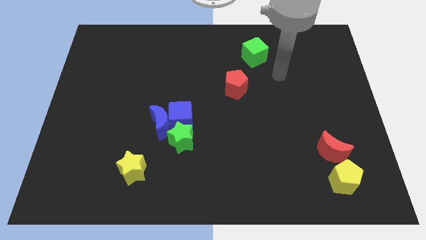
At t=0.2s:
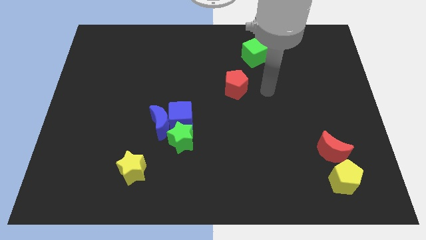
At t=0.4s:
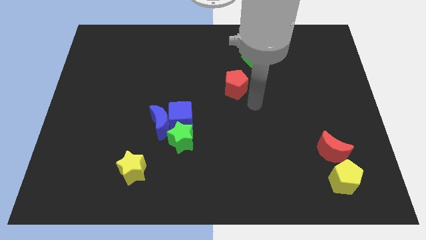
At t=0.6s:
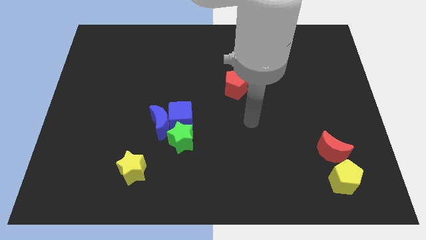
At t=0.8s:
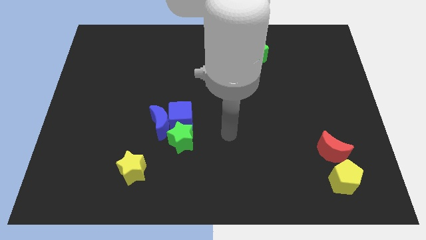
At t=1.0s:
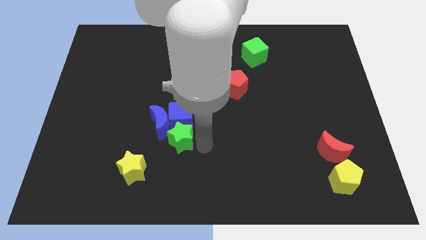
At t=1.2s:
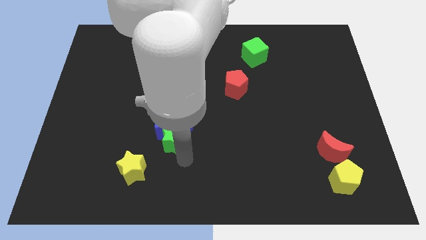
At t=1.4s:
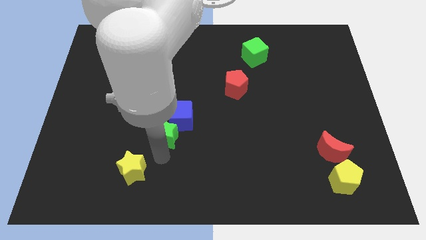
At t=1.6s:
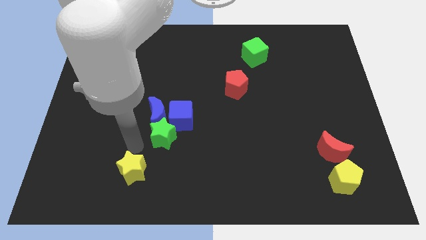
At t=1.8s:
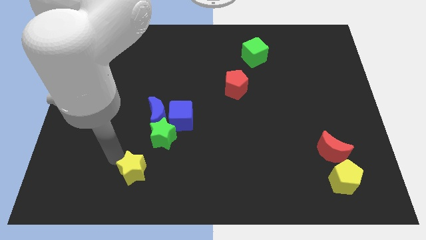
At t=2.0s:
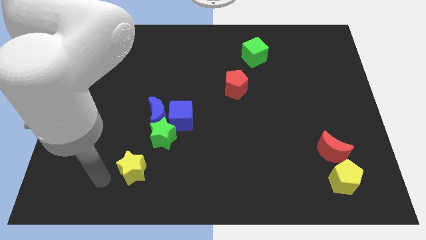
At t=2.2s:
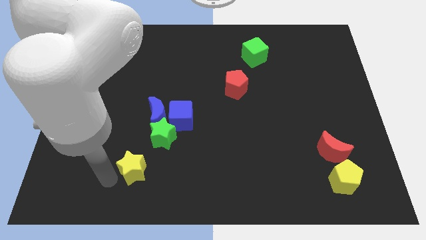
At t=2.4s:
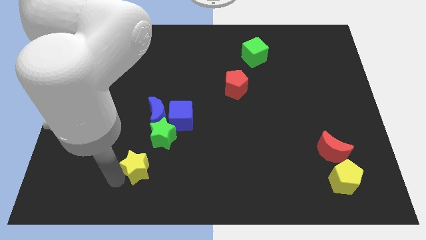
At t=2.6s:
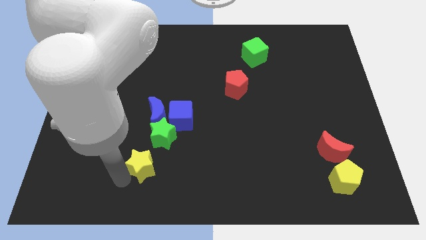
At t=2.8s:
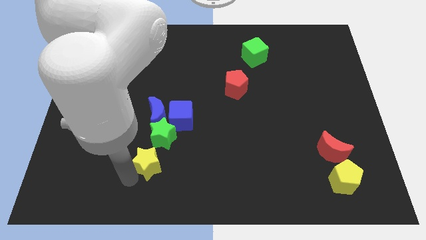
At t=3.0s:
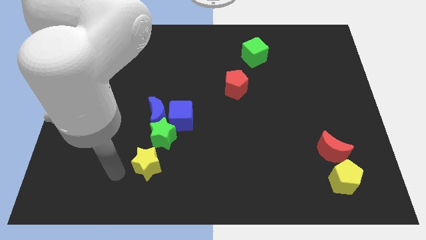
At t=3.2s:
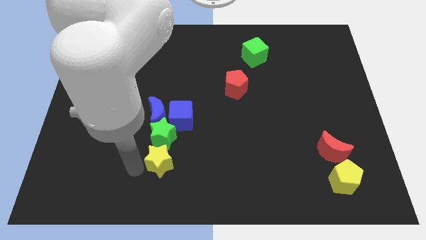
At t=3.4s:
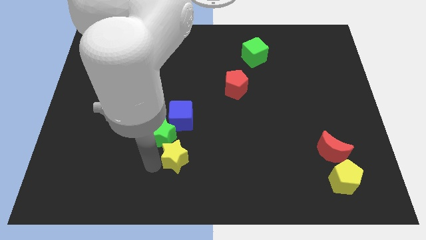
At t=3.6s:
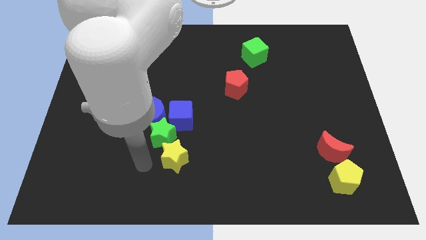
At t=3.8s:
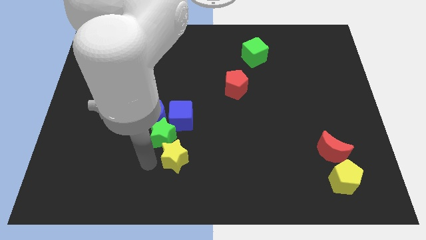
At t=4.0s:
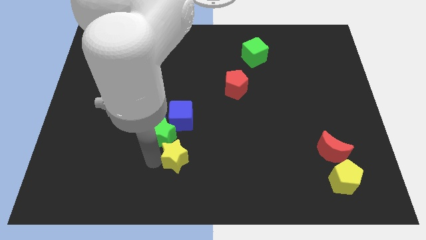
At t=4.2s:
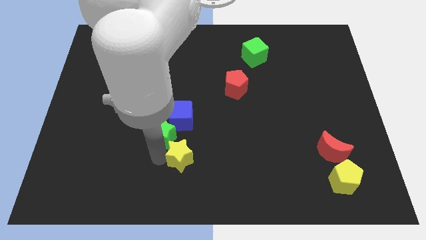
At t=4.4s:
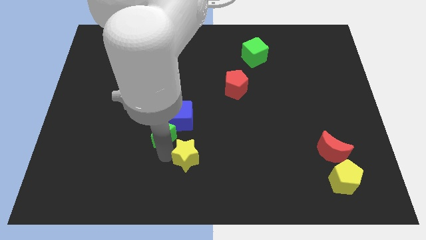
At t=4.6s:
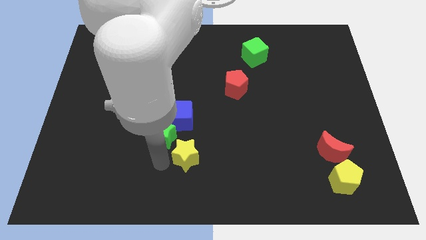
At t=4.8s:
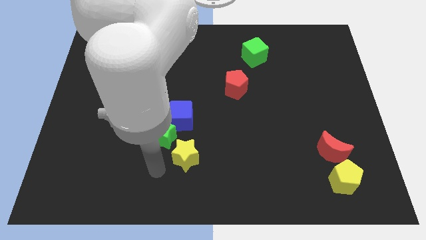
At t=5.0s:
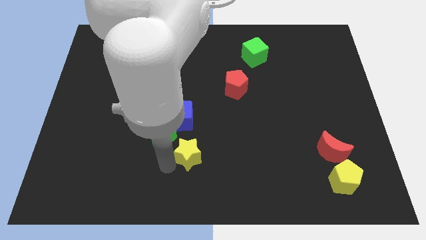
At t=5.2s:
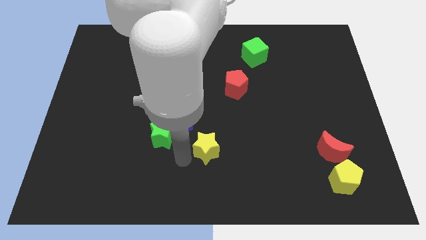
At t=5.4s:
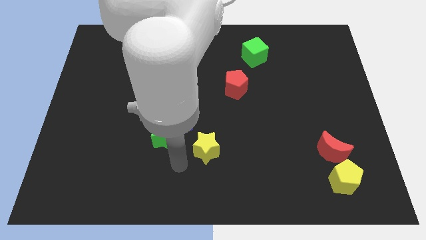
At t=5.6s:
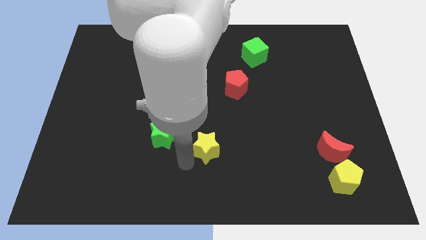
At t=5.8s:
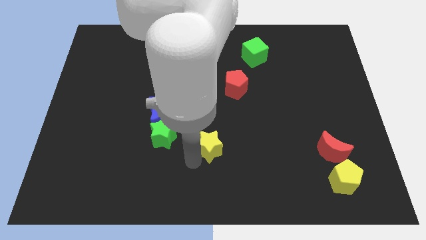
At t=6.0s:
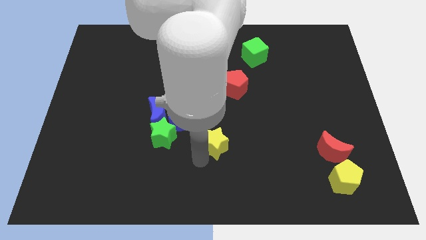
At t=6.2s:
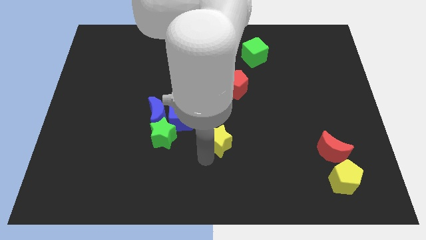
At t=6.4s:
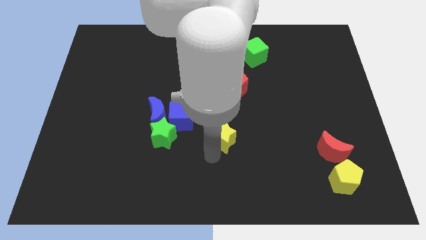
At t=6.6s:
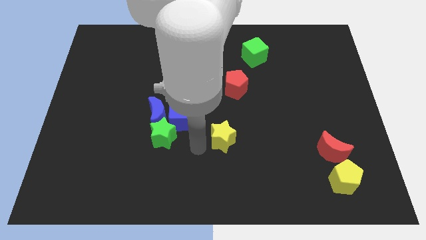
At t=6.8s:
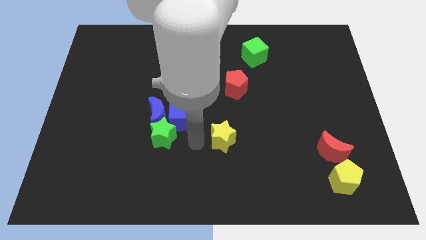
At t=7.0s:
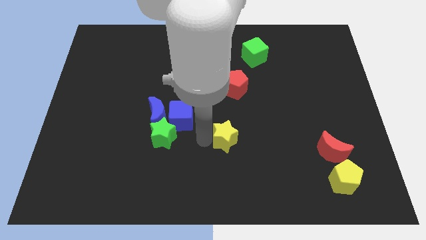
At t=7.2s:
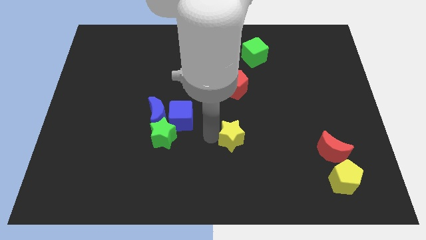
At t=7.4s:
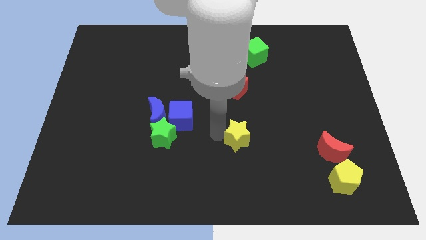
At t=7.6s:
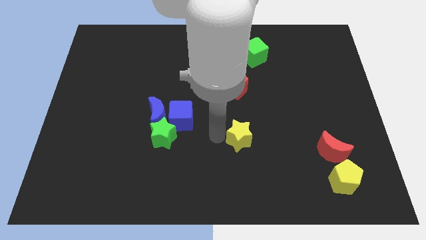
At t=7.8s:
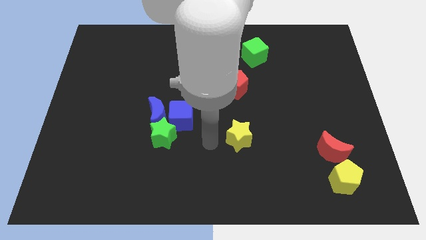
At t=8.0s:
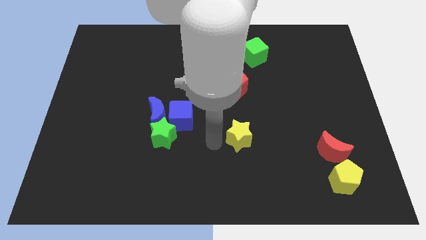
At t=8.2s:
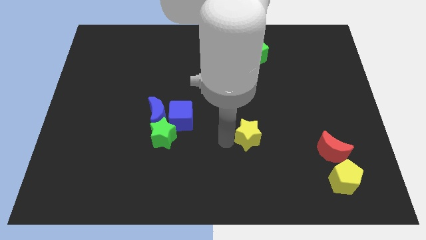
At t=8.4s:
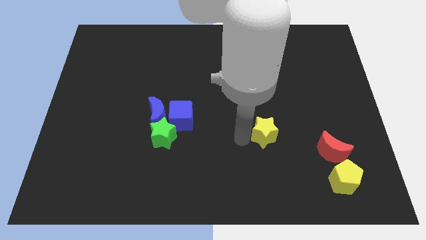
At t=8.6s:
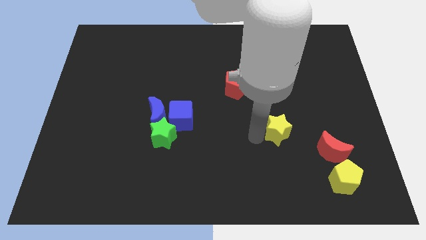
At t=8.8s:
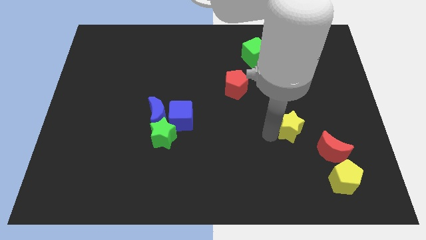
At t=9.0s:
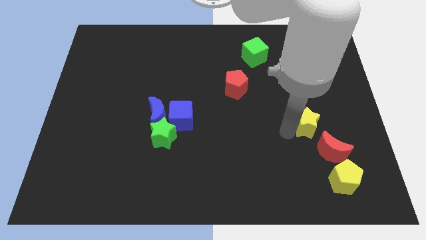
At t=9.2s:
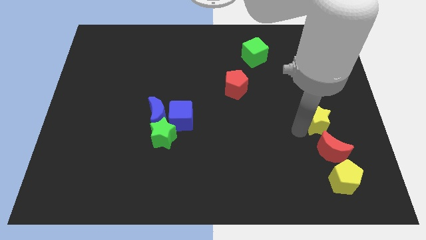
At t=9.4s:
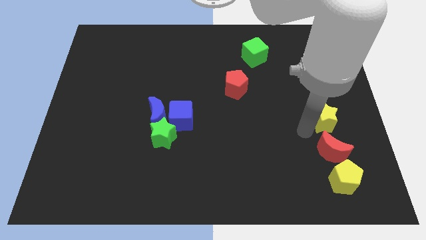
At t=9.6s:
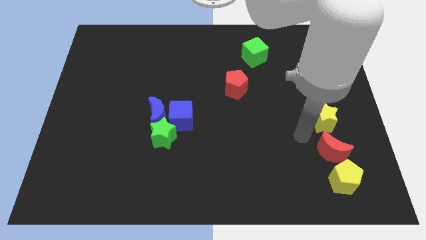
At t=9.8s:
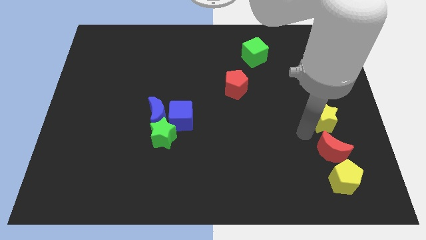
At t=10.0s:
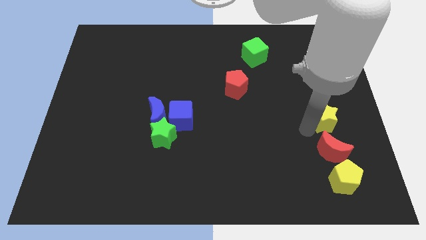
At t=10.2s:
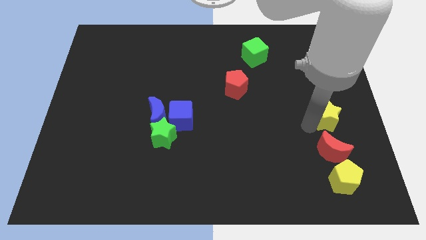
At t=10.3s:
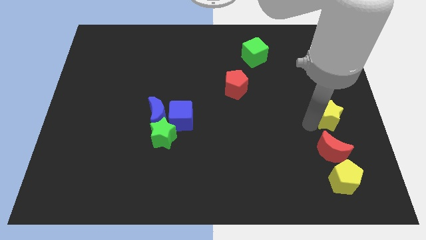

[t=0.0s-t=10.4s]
slide the yellow star to the right side

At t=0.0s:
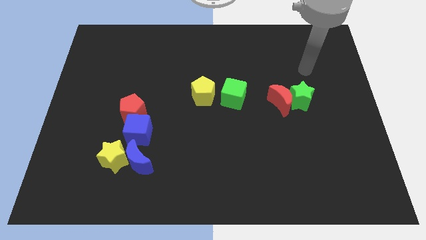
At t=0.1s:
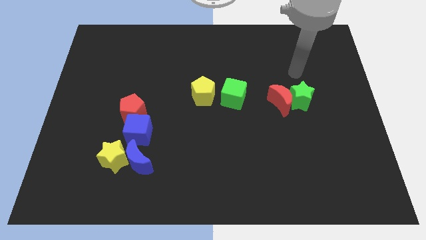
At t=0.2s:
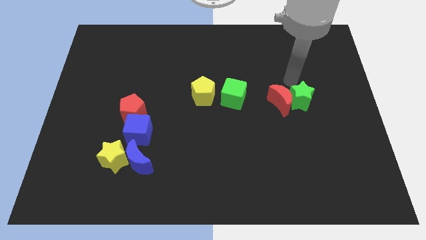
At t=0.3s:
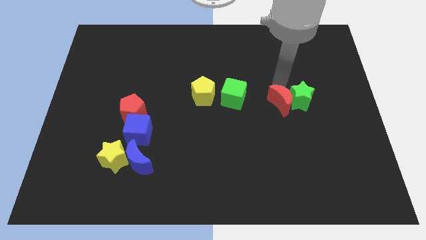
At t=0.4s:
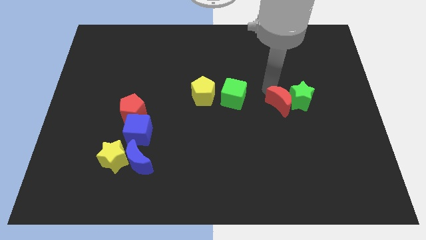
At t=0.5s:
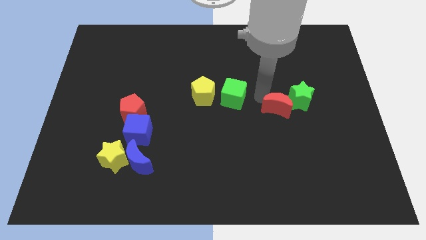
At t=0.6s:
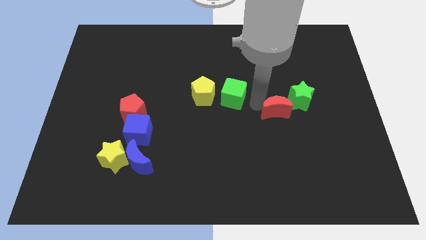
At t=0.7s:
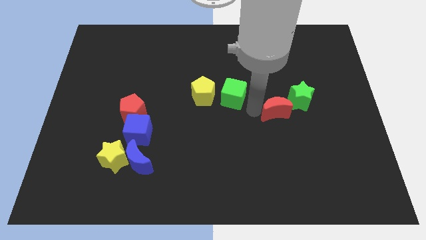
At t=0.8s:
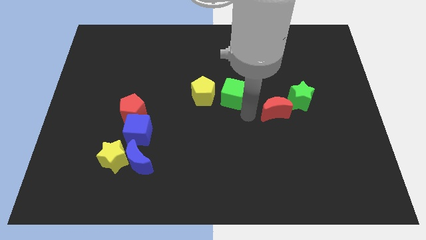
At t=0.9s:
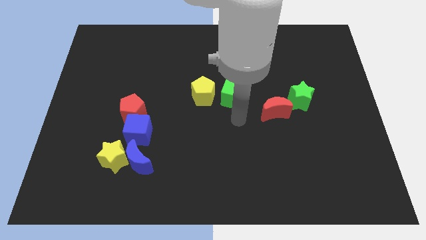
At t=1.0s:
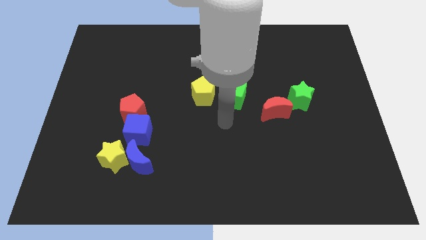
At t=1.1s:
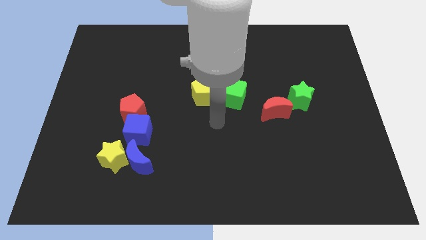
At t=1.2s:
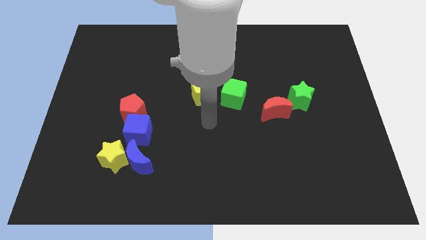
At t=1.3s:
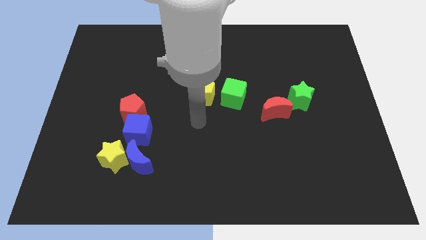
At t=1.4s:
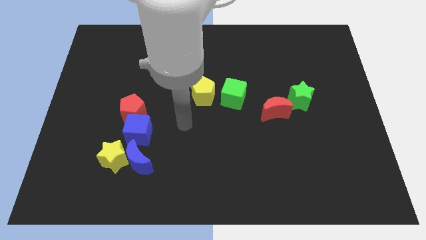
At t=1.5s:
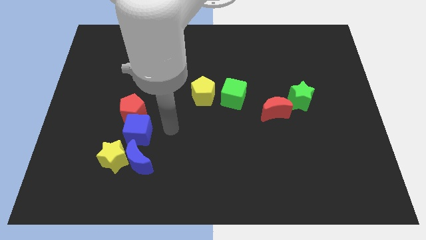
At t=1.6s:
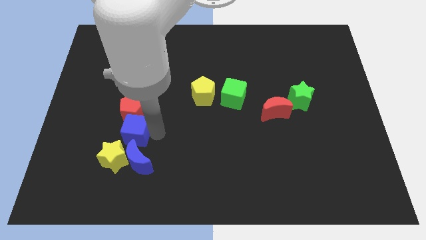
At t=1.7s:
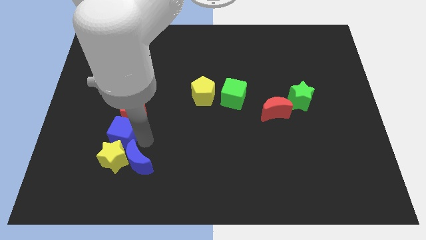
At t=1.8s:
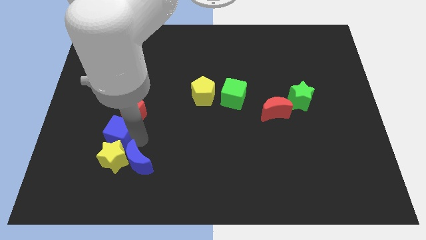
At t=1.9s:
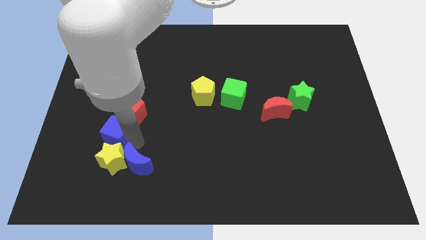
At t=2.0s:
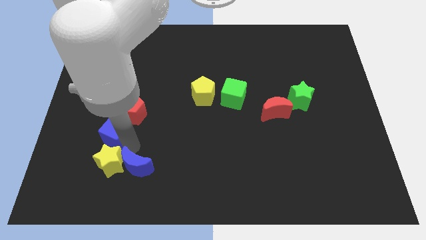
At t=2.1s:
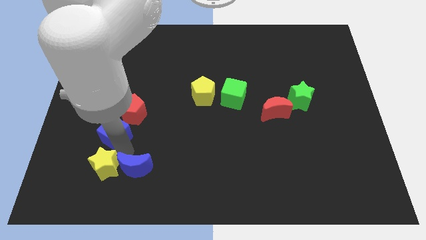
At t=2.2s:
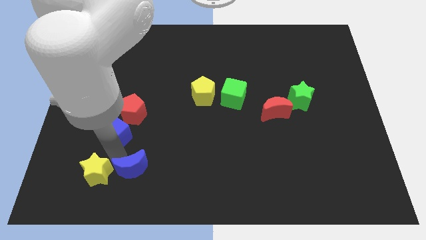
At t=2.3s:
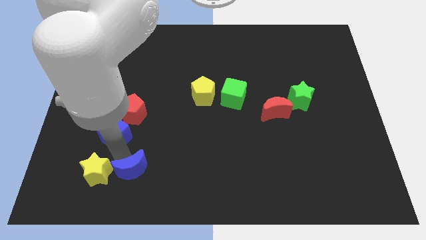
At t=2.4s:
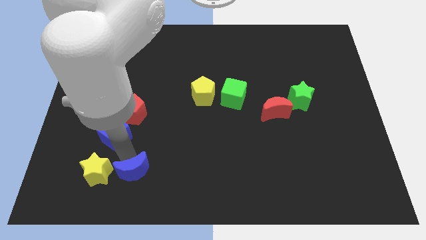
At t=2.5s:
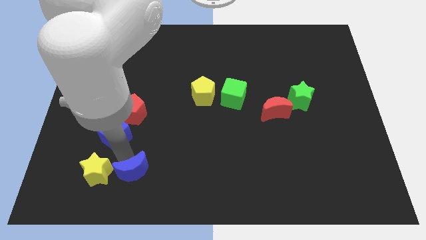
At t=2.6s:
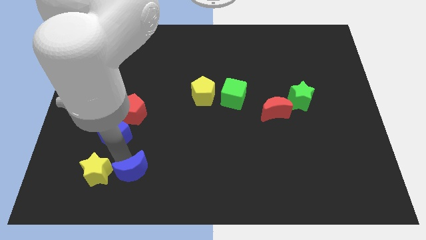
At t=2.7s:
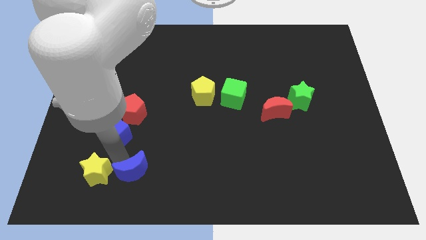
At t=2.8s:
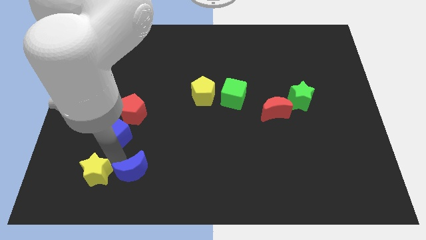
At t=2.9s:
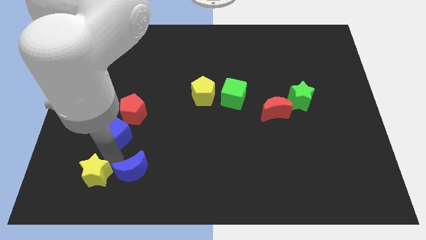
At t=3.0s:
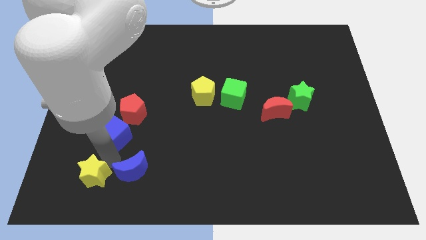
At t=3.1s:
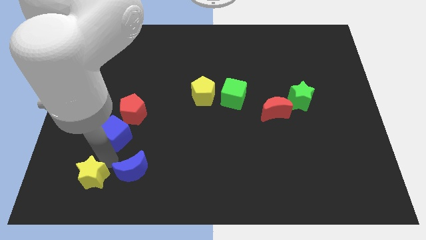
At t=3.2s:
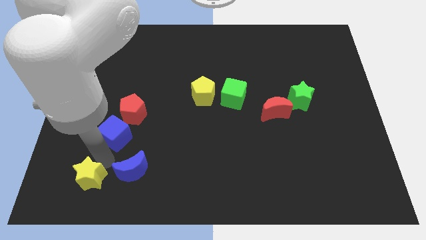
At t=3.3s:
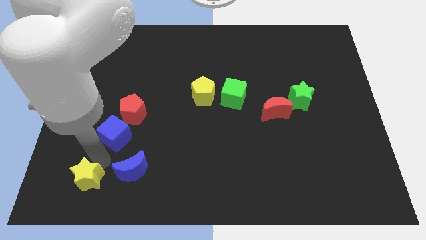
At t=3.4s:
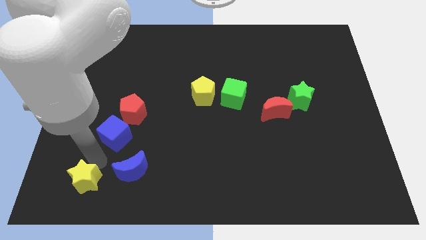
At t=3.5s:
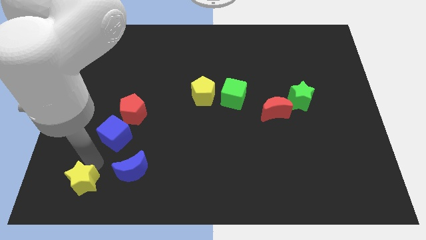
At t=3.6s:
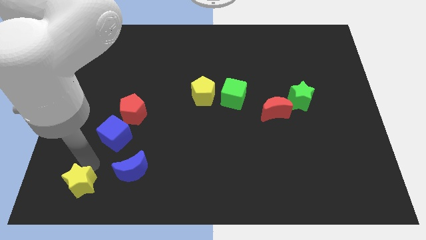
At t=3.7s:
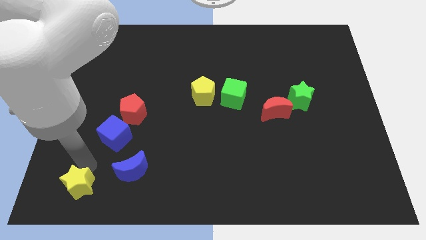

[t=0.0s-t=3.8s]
move the yellow star to the bottom left corner
